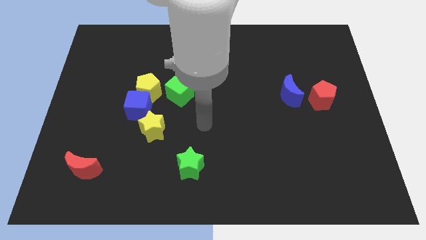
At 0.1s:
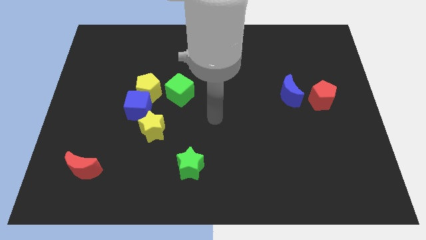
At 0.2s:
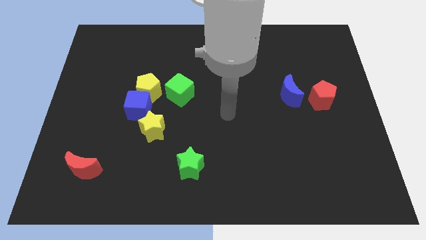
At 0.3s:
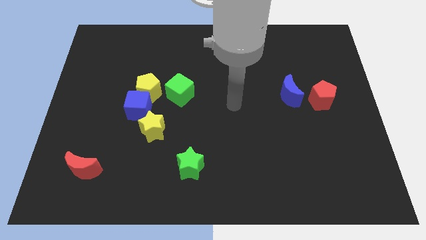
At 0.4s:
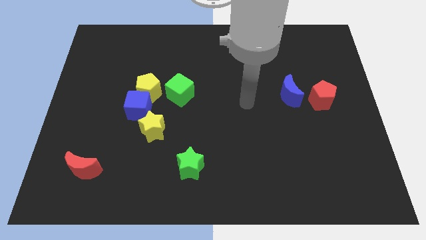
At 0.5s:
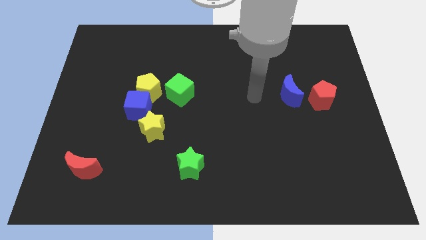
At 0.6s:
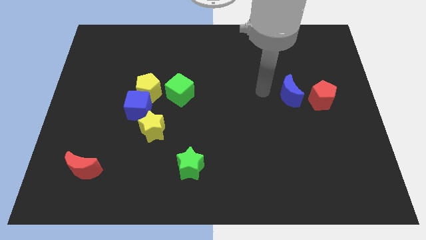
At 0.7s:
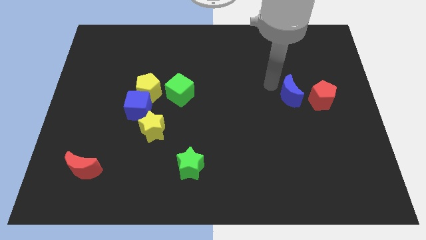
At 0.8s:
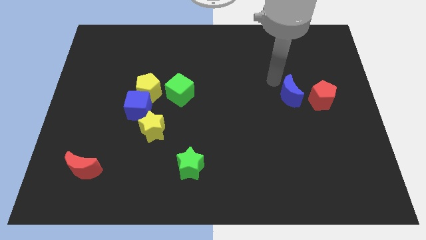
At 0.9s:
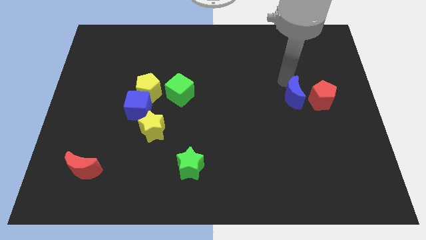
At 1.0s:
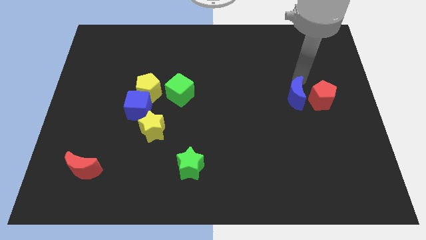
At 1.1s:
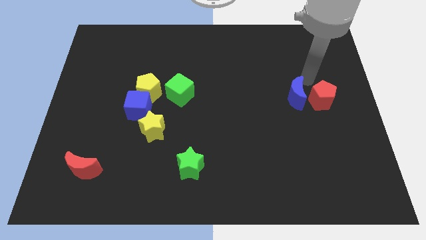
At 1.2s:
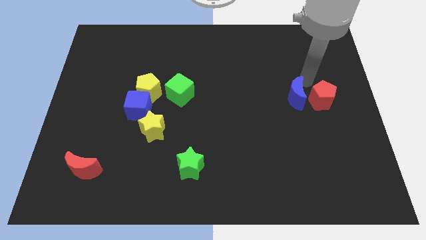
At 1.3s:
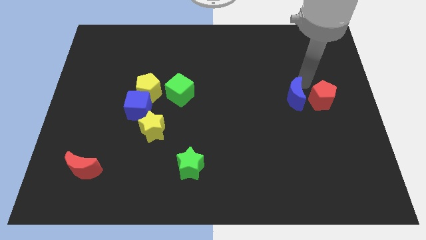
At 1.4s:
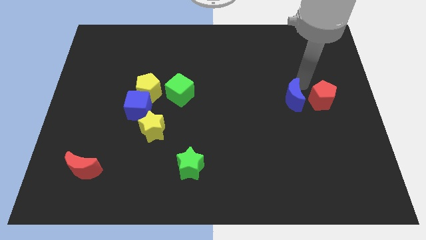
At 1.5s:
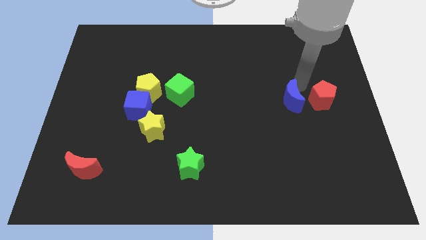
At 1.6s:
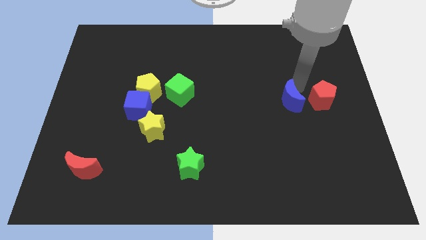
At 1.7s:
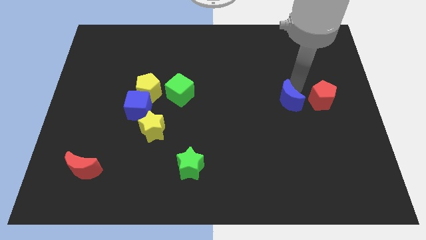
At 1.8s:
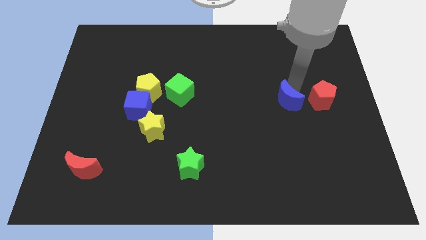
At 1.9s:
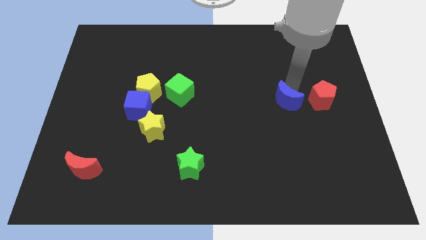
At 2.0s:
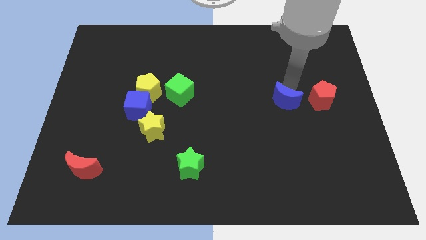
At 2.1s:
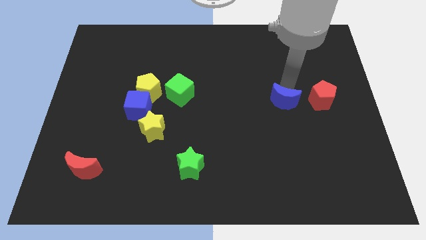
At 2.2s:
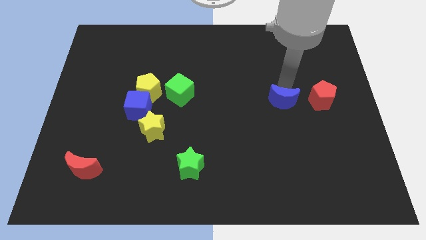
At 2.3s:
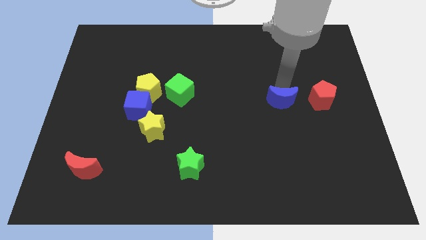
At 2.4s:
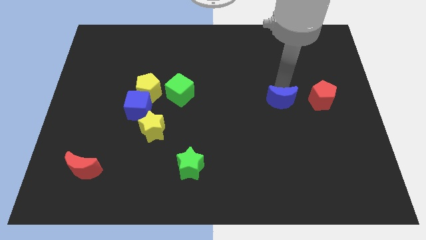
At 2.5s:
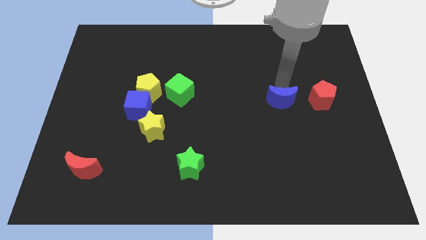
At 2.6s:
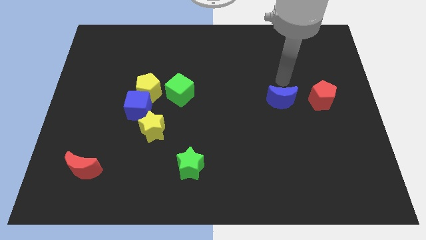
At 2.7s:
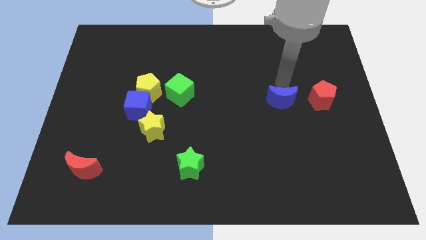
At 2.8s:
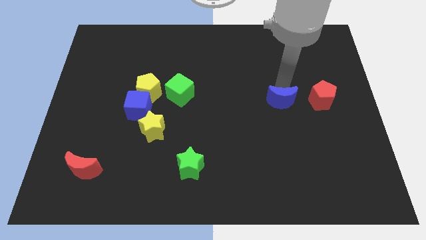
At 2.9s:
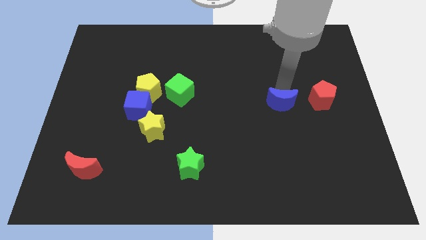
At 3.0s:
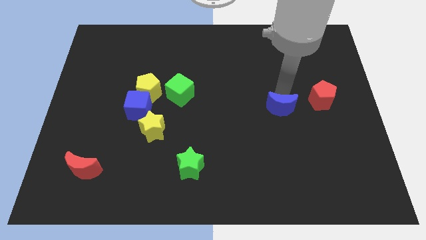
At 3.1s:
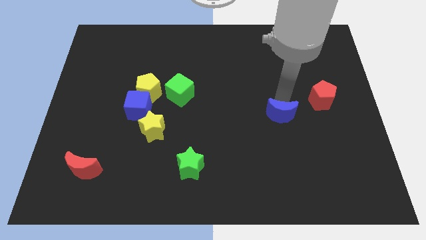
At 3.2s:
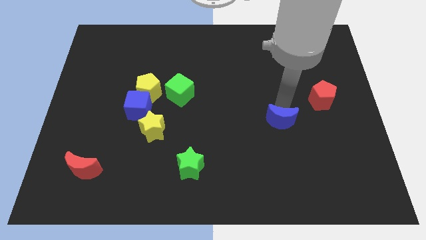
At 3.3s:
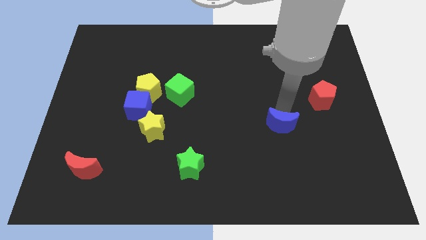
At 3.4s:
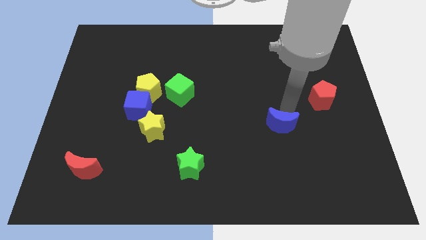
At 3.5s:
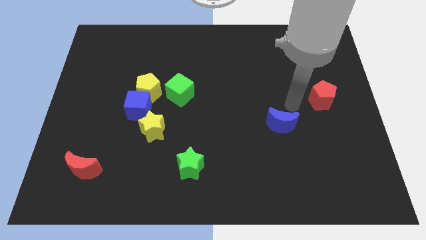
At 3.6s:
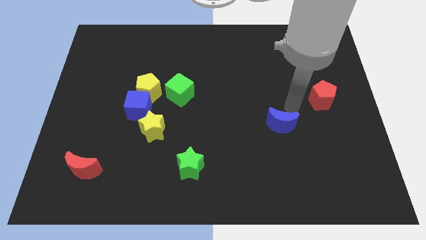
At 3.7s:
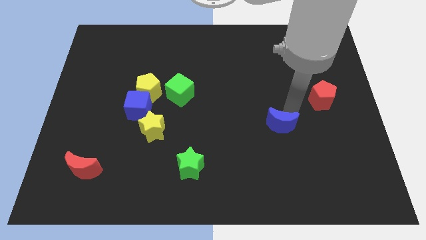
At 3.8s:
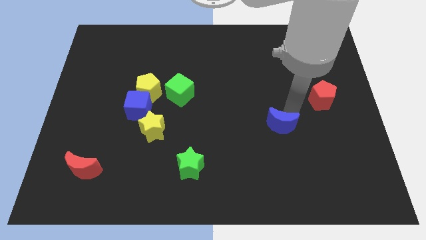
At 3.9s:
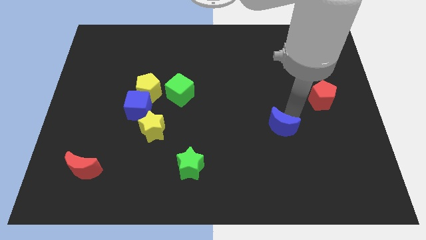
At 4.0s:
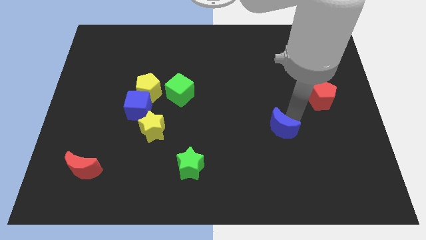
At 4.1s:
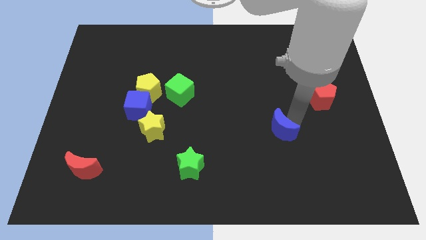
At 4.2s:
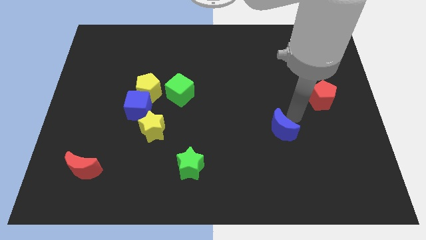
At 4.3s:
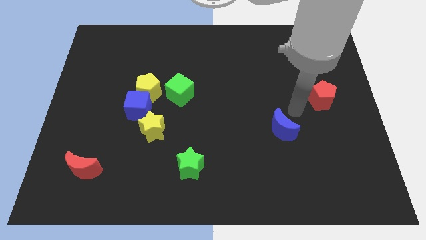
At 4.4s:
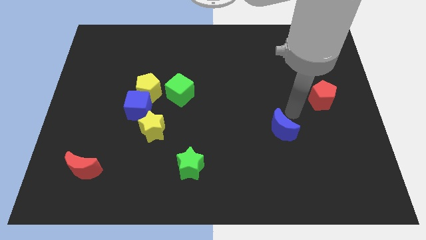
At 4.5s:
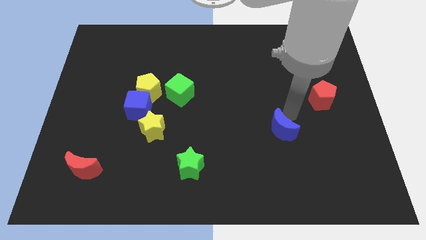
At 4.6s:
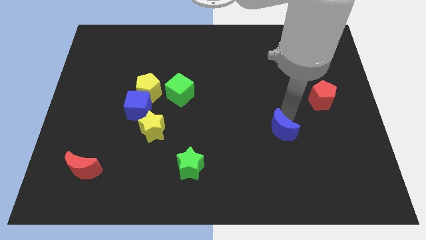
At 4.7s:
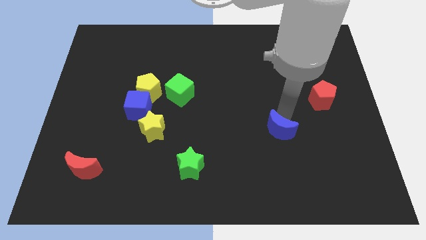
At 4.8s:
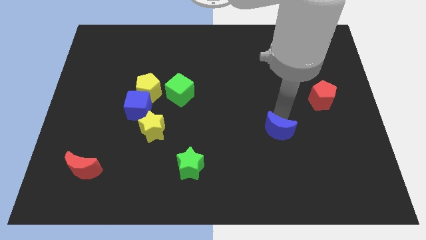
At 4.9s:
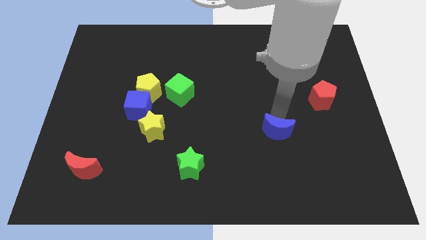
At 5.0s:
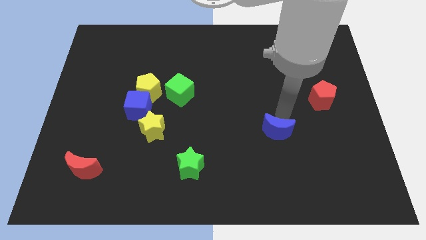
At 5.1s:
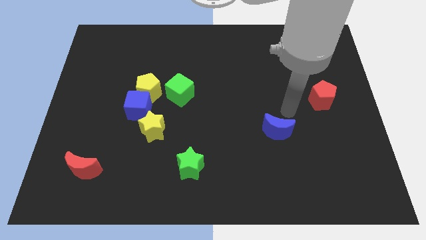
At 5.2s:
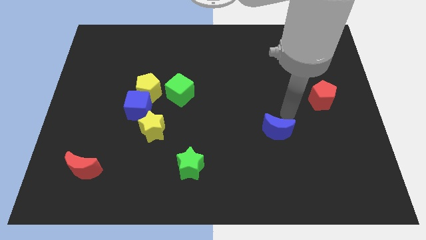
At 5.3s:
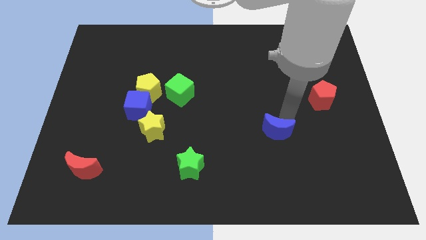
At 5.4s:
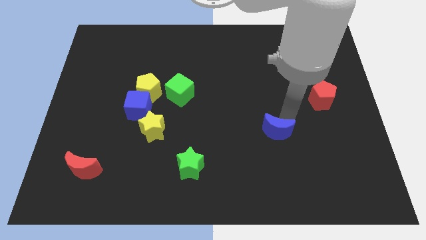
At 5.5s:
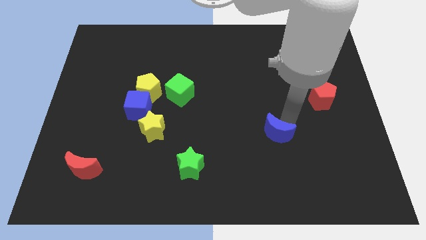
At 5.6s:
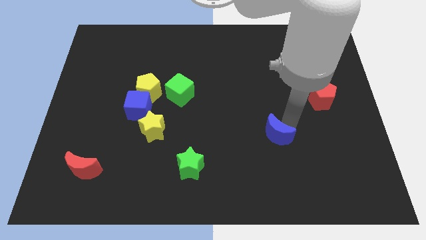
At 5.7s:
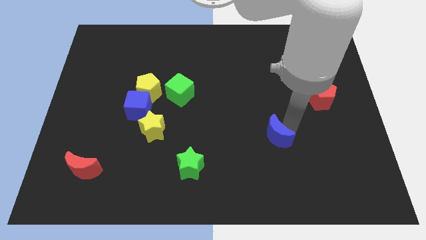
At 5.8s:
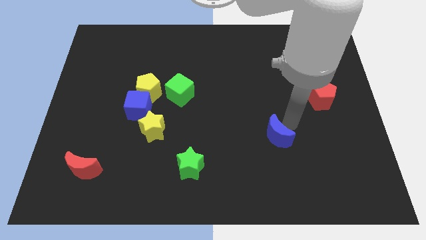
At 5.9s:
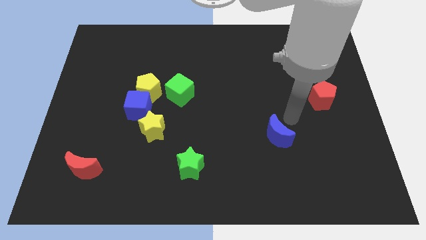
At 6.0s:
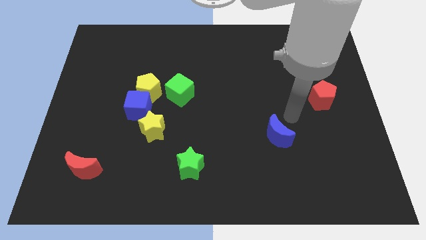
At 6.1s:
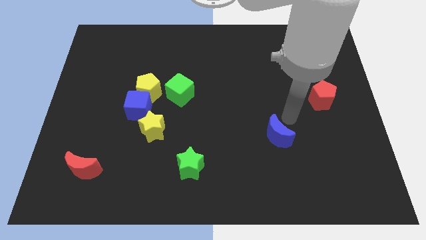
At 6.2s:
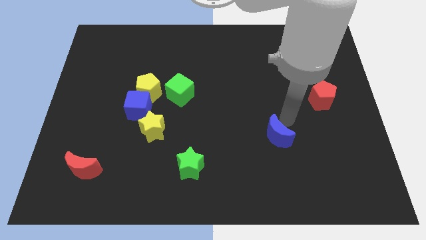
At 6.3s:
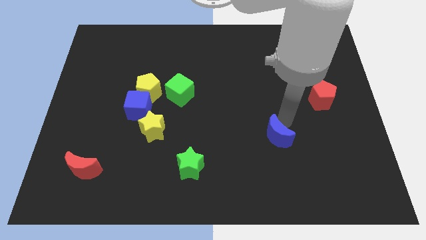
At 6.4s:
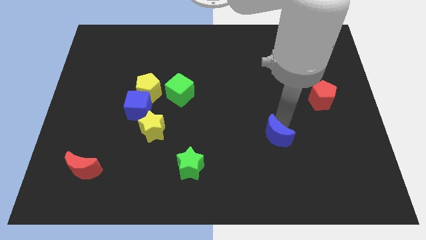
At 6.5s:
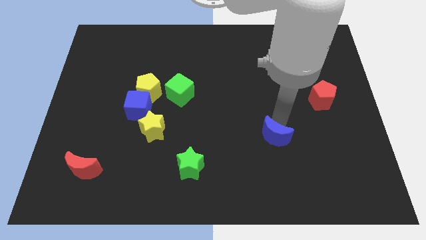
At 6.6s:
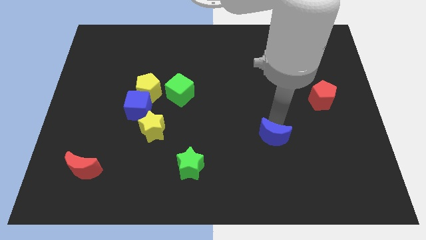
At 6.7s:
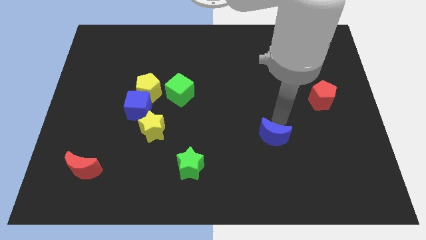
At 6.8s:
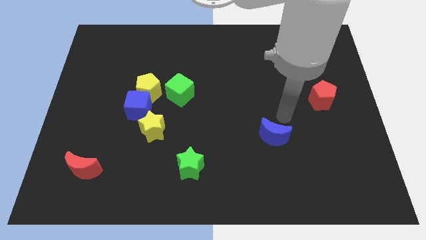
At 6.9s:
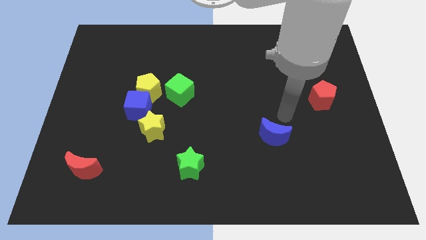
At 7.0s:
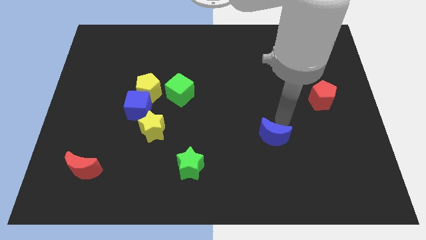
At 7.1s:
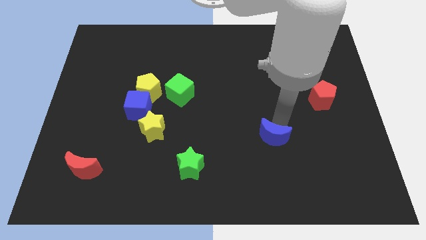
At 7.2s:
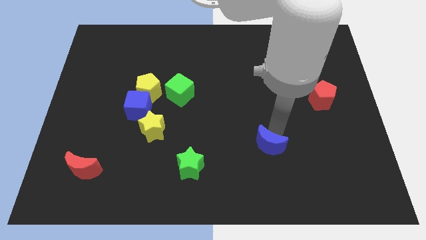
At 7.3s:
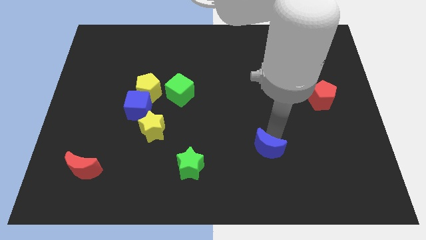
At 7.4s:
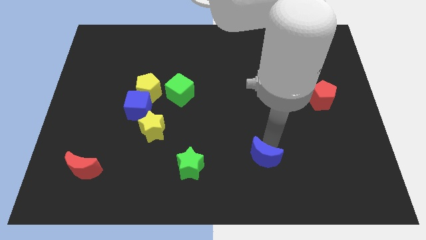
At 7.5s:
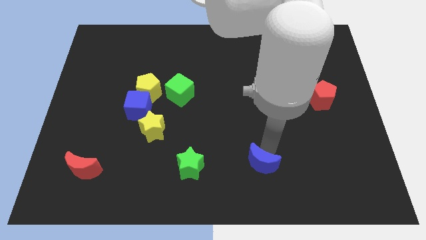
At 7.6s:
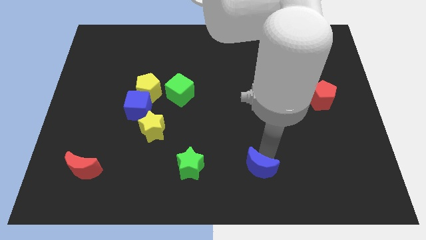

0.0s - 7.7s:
push the blue moon to the bottom
